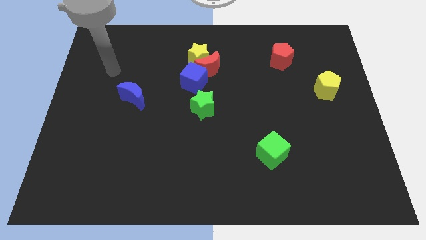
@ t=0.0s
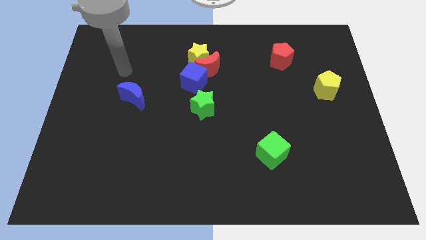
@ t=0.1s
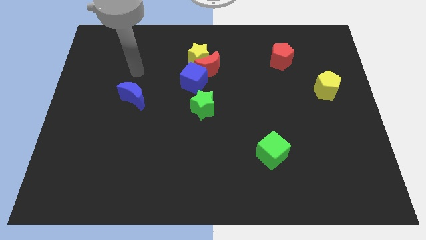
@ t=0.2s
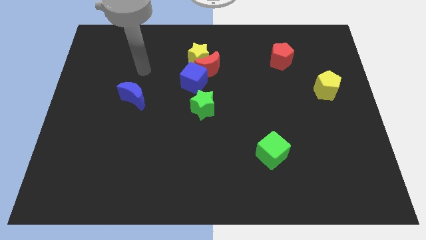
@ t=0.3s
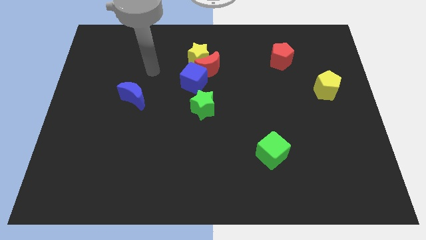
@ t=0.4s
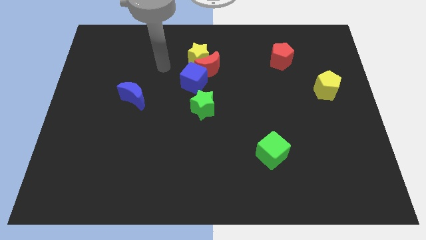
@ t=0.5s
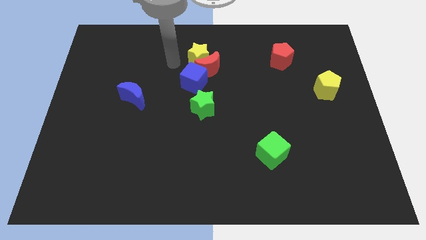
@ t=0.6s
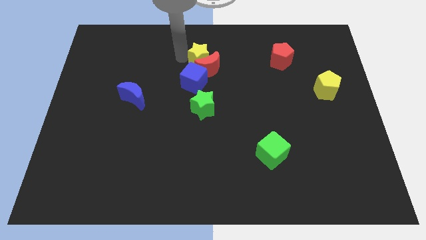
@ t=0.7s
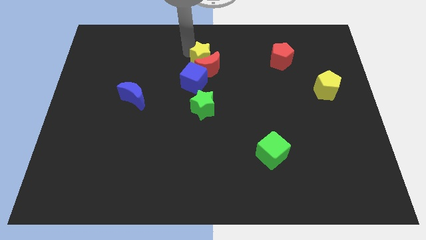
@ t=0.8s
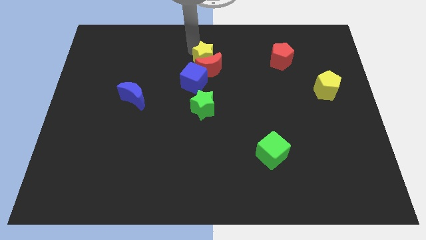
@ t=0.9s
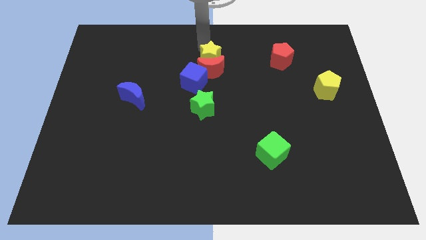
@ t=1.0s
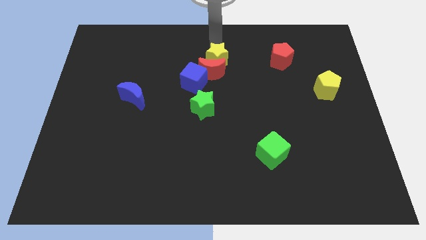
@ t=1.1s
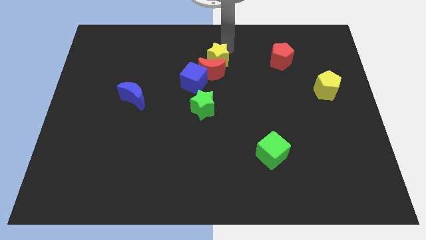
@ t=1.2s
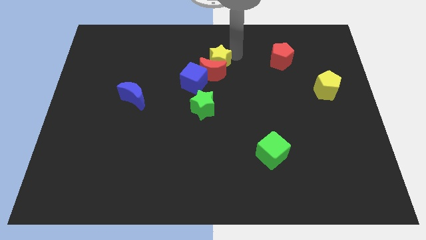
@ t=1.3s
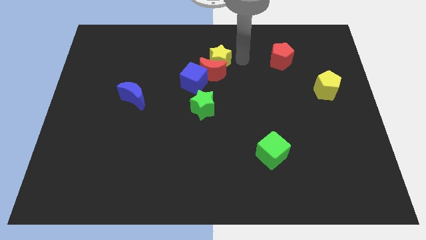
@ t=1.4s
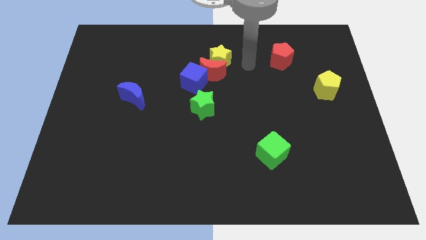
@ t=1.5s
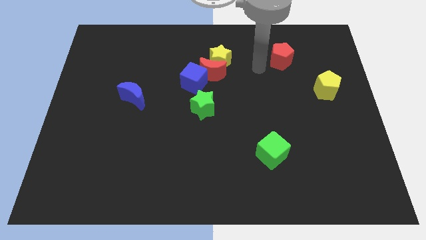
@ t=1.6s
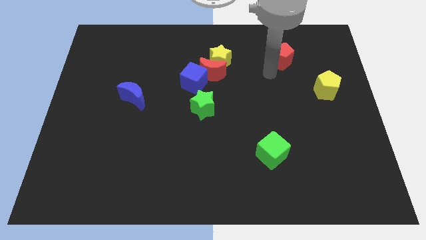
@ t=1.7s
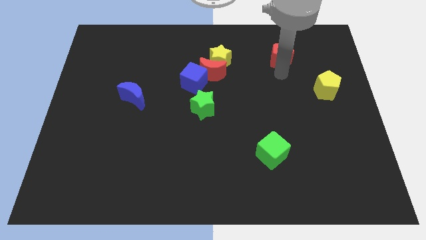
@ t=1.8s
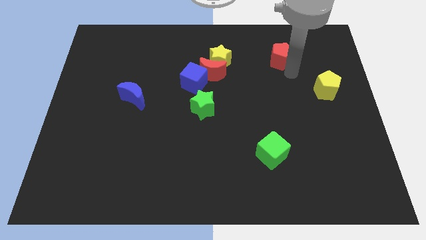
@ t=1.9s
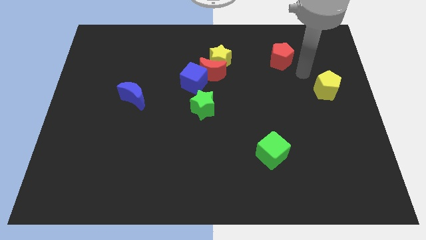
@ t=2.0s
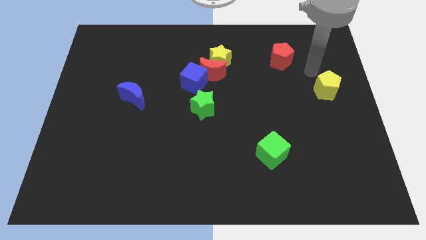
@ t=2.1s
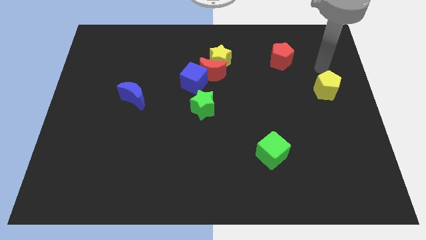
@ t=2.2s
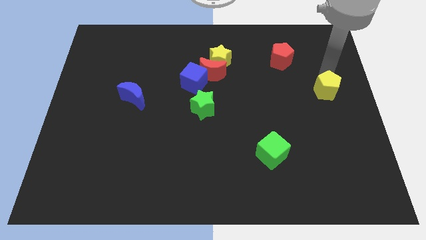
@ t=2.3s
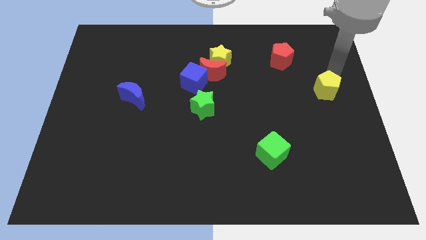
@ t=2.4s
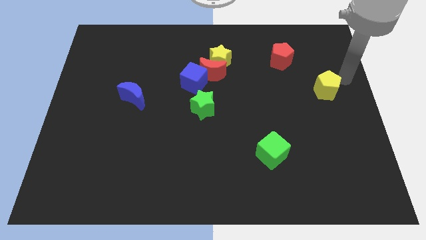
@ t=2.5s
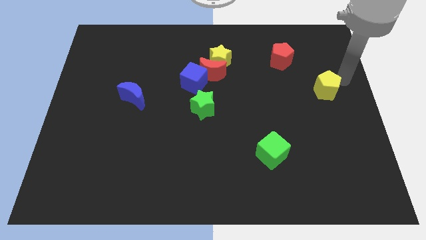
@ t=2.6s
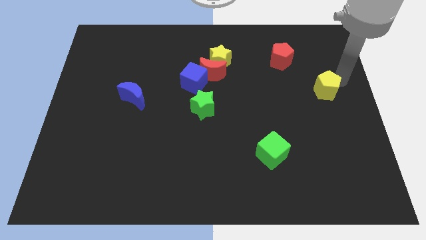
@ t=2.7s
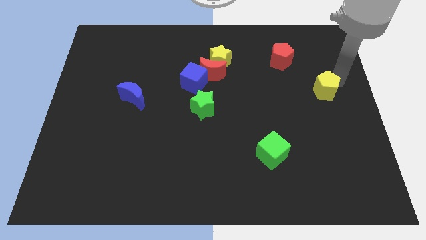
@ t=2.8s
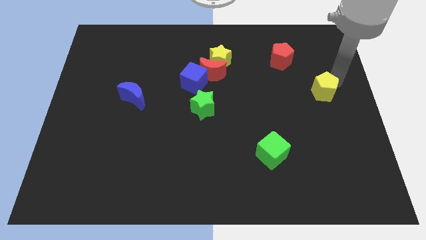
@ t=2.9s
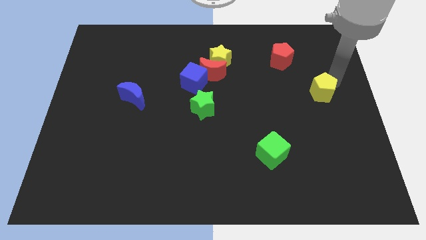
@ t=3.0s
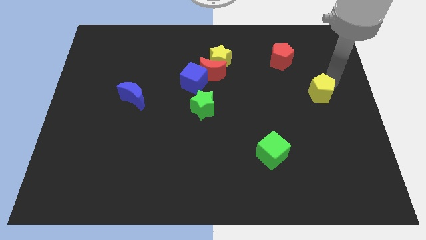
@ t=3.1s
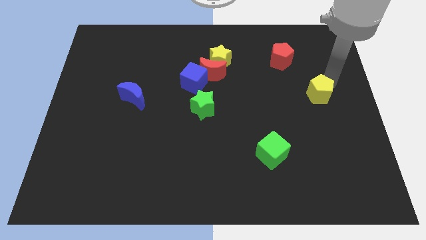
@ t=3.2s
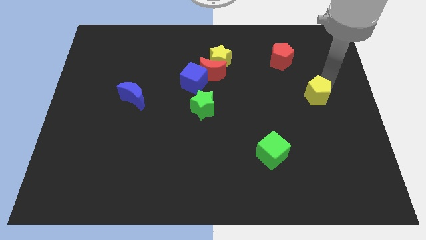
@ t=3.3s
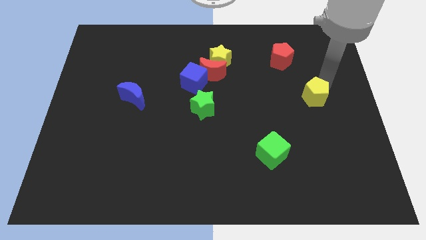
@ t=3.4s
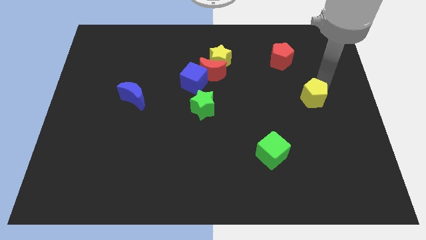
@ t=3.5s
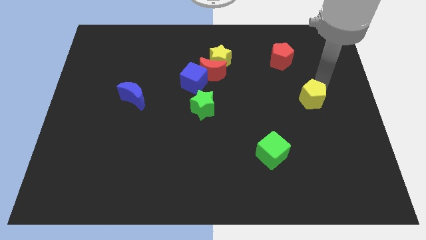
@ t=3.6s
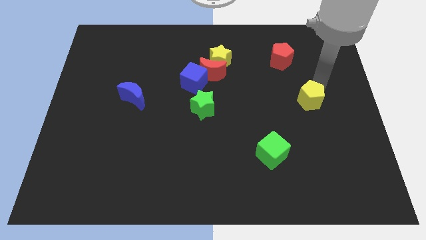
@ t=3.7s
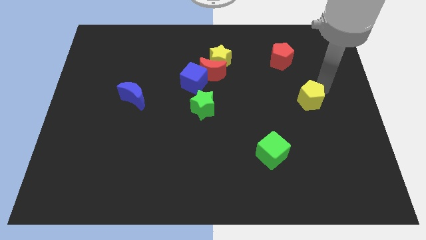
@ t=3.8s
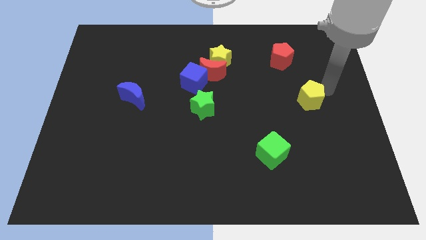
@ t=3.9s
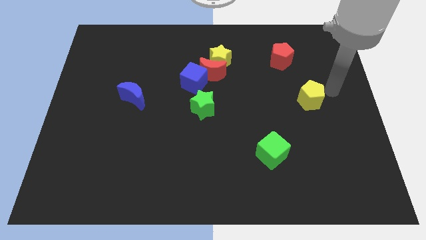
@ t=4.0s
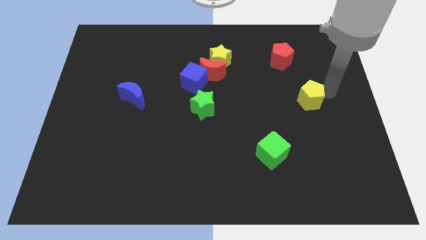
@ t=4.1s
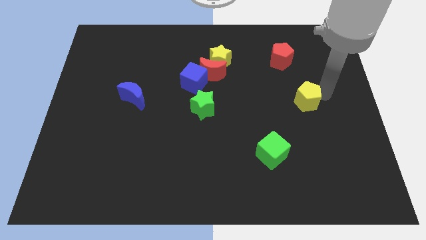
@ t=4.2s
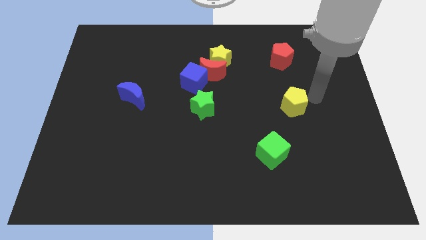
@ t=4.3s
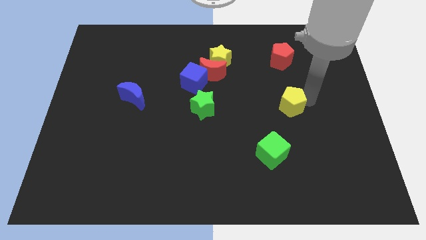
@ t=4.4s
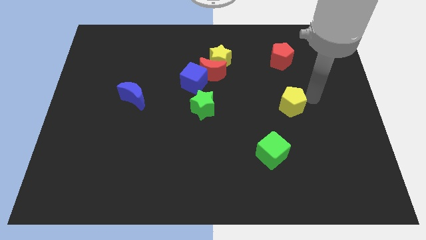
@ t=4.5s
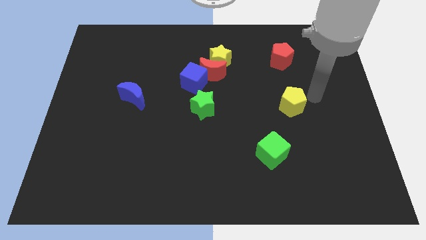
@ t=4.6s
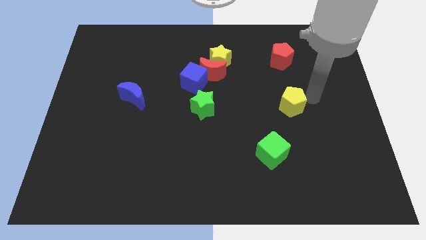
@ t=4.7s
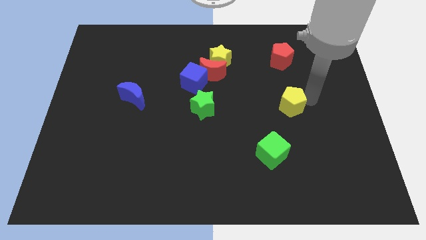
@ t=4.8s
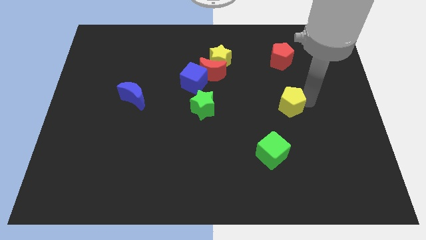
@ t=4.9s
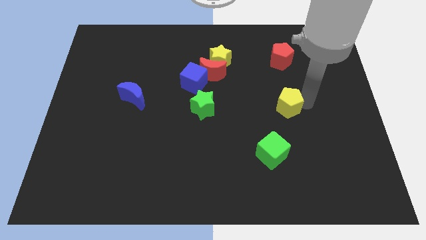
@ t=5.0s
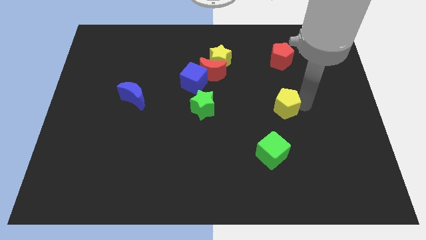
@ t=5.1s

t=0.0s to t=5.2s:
move the yellow pentagon above the green cube

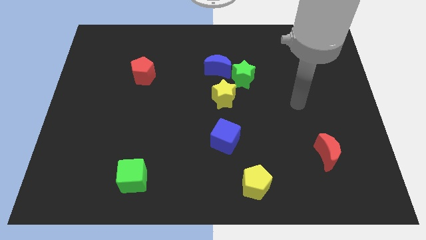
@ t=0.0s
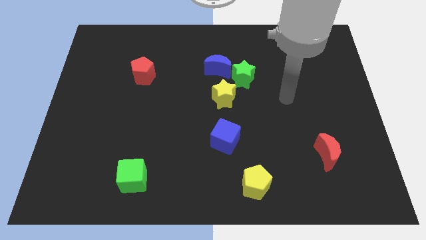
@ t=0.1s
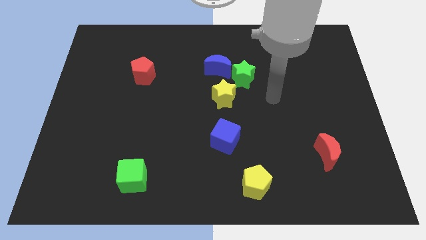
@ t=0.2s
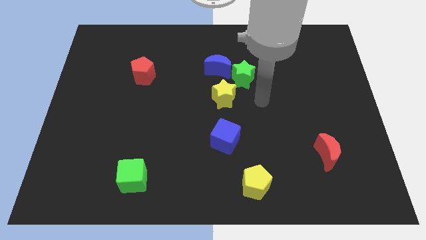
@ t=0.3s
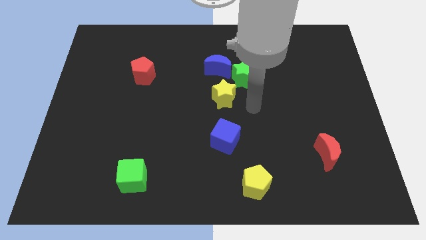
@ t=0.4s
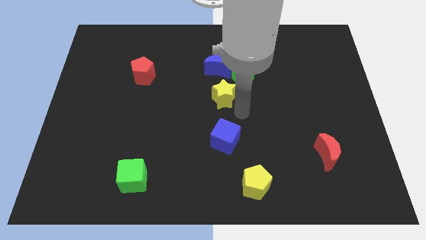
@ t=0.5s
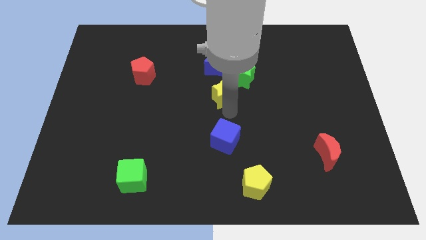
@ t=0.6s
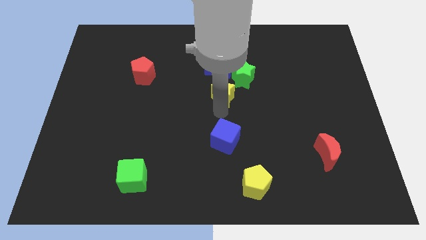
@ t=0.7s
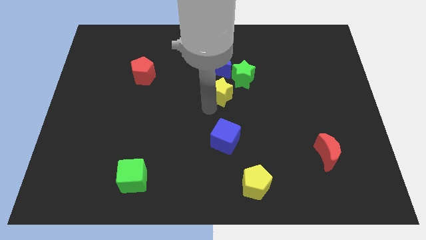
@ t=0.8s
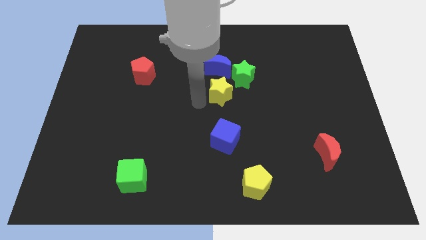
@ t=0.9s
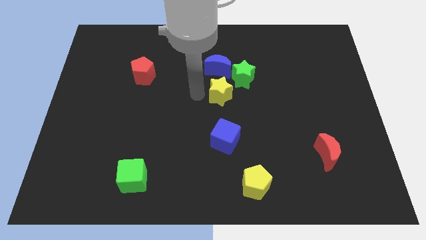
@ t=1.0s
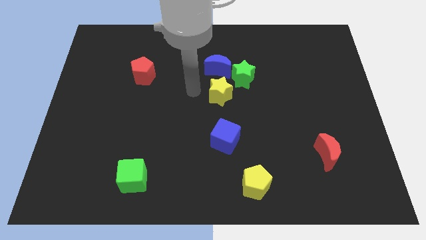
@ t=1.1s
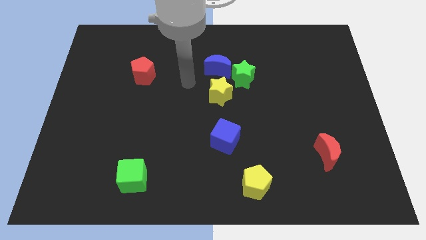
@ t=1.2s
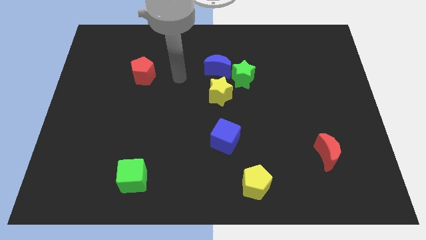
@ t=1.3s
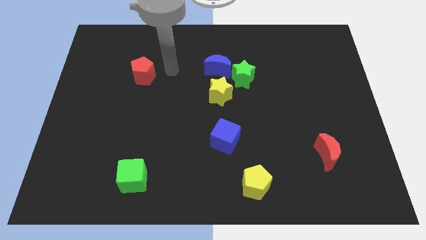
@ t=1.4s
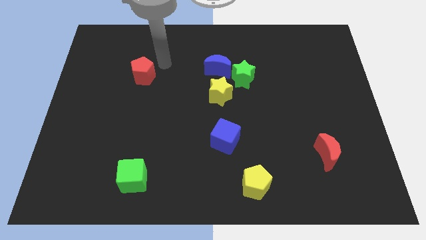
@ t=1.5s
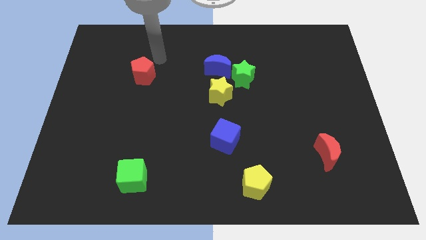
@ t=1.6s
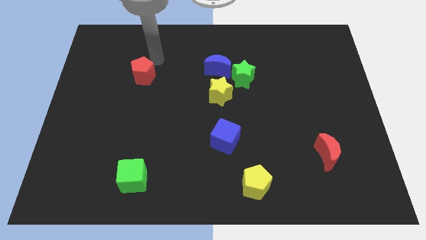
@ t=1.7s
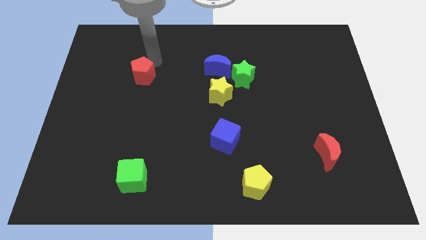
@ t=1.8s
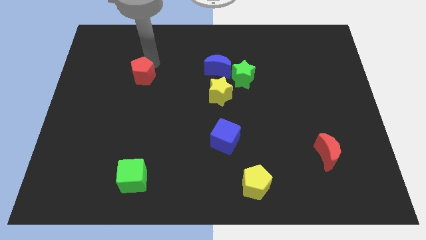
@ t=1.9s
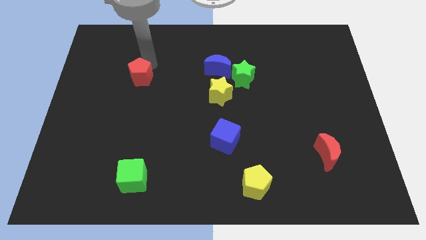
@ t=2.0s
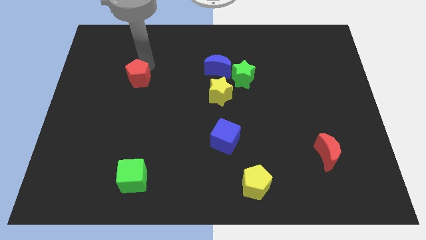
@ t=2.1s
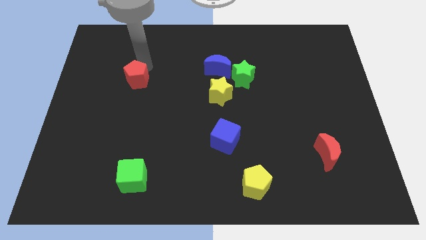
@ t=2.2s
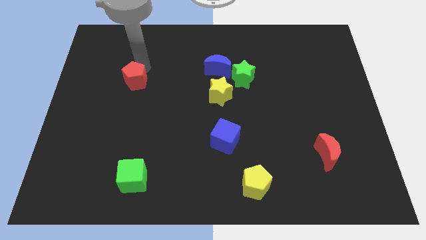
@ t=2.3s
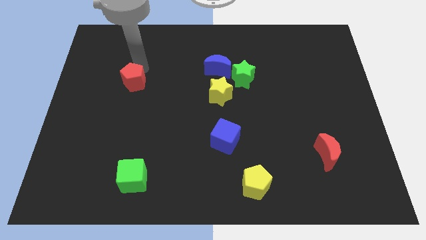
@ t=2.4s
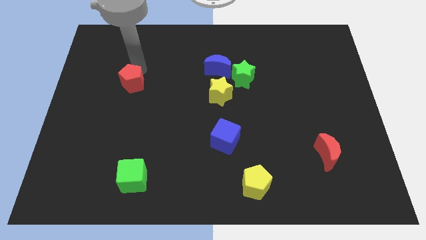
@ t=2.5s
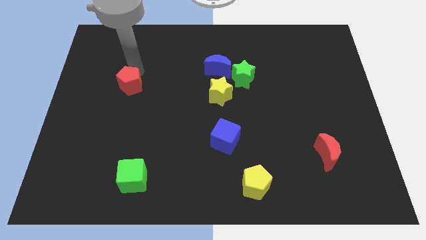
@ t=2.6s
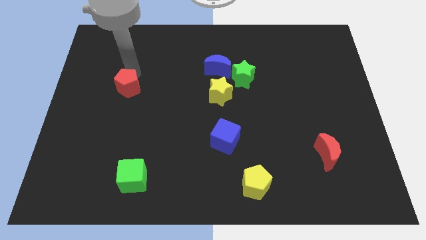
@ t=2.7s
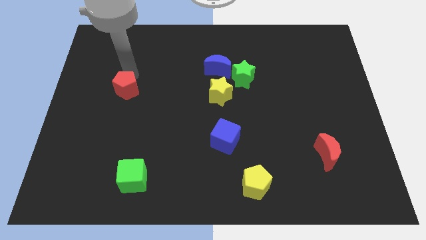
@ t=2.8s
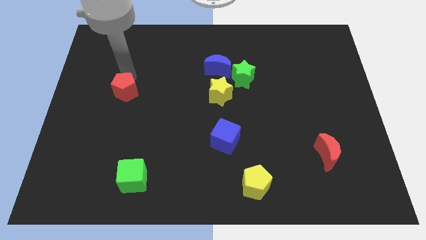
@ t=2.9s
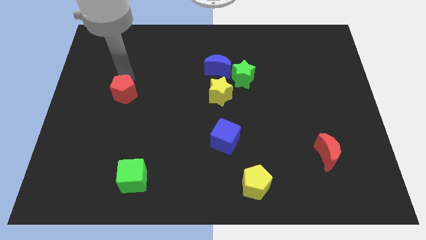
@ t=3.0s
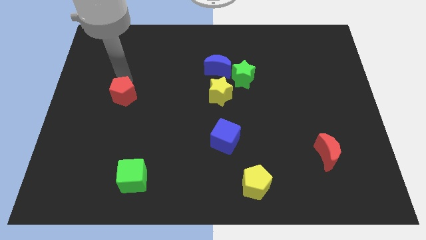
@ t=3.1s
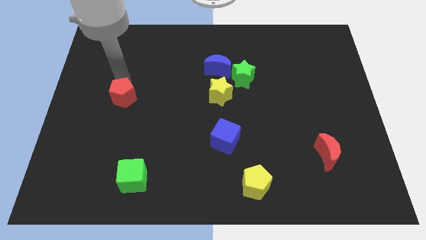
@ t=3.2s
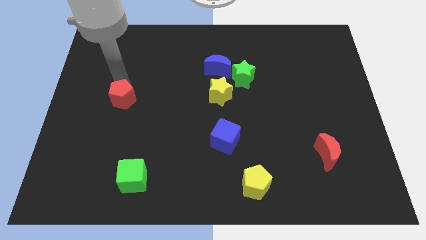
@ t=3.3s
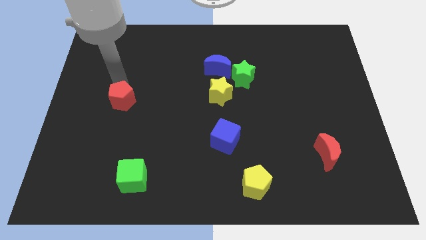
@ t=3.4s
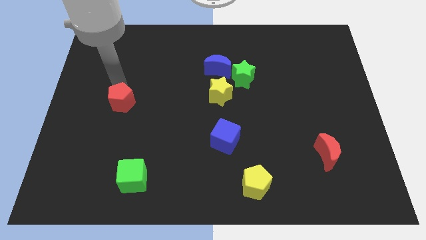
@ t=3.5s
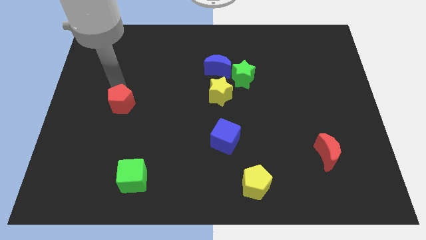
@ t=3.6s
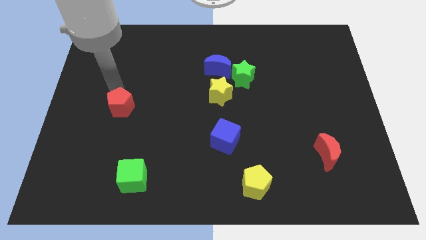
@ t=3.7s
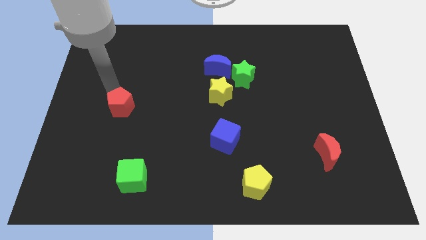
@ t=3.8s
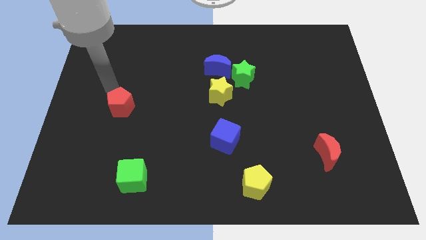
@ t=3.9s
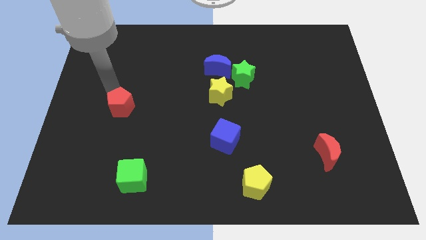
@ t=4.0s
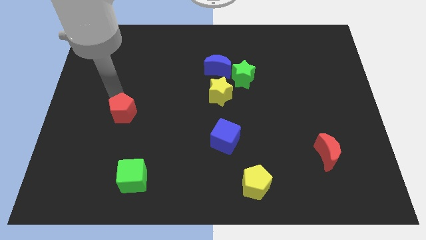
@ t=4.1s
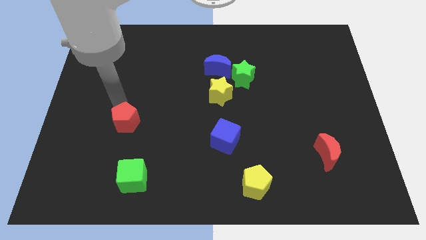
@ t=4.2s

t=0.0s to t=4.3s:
move the red pentagon to the top side of the green cube
